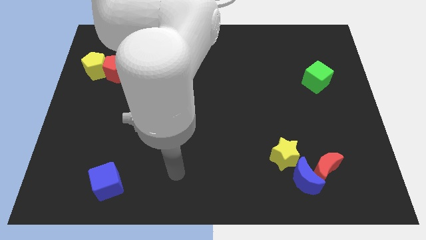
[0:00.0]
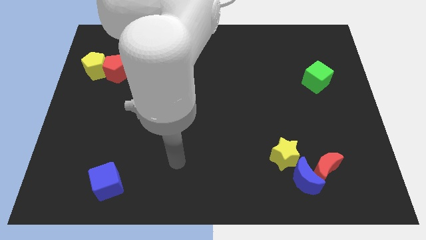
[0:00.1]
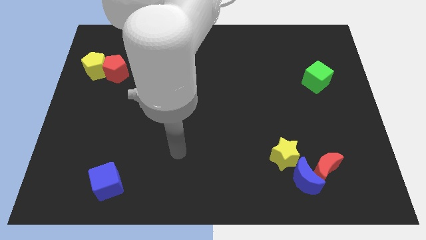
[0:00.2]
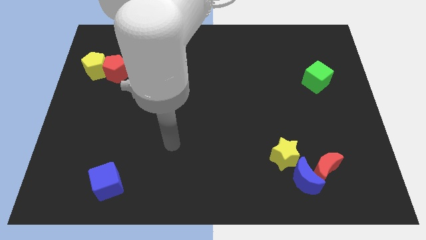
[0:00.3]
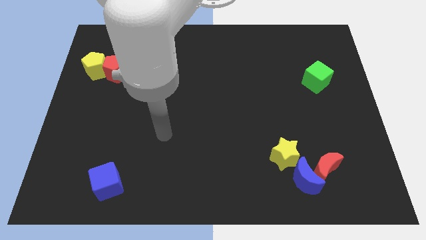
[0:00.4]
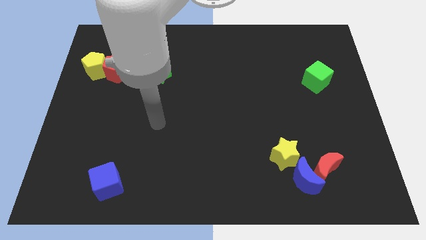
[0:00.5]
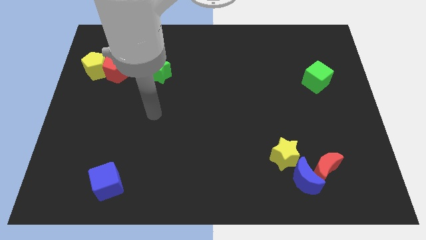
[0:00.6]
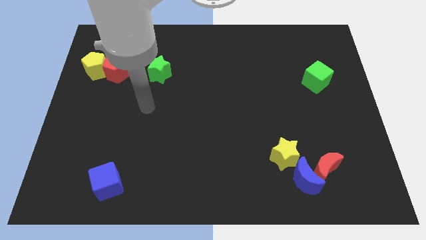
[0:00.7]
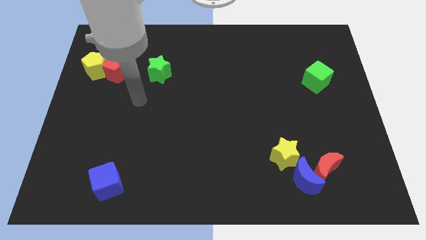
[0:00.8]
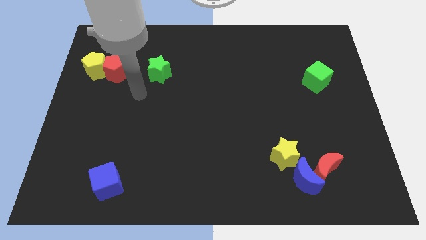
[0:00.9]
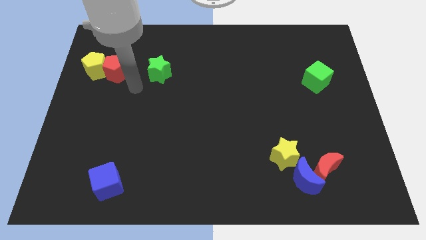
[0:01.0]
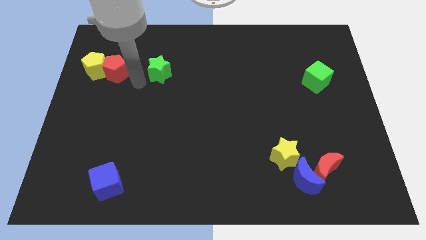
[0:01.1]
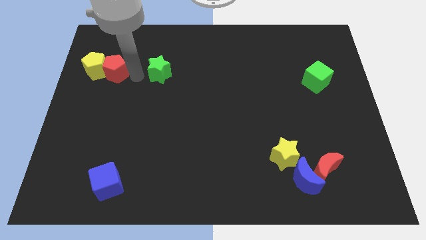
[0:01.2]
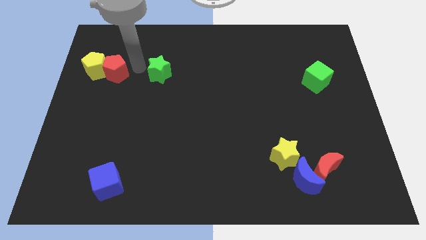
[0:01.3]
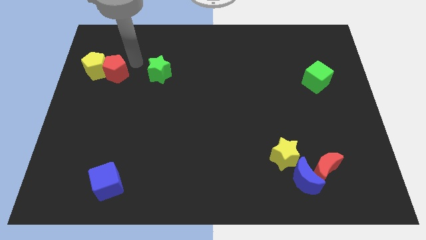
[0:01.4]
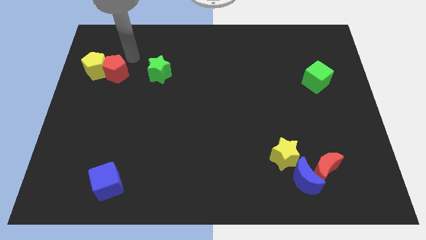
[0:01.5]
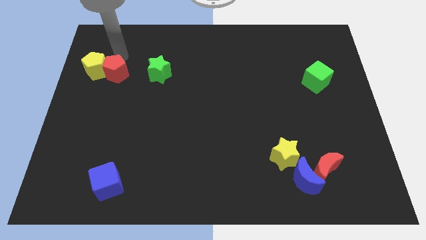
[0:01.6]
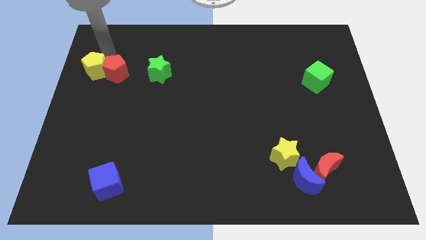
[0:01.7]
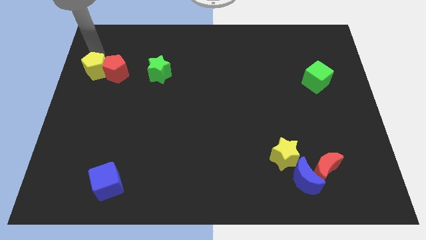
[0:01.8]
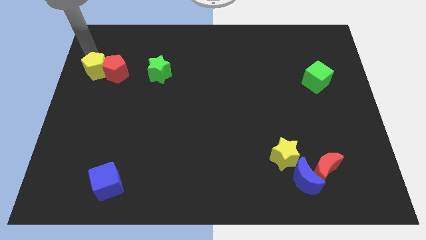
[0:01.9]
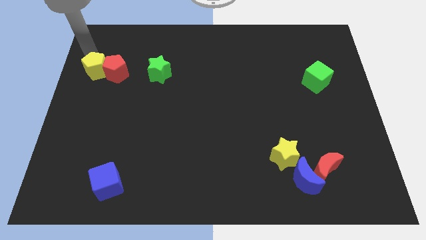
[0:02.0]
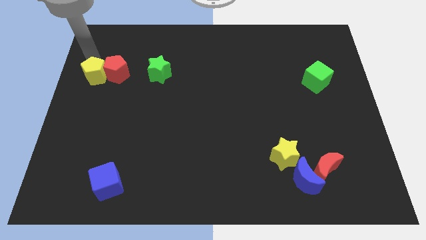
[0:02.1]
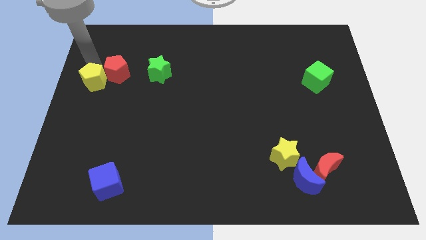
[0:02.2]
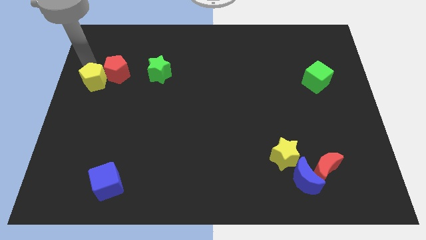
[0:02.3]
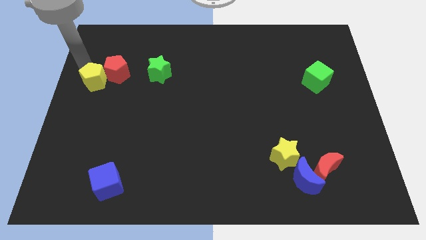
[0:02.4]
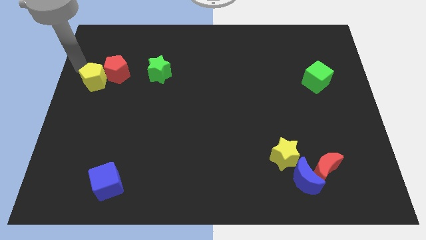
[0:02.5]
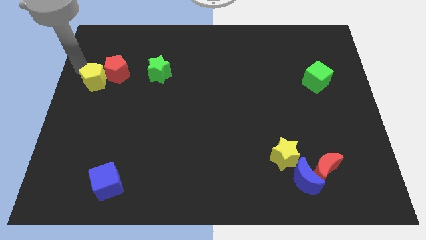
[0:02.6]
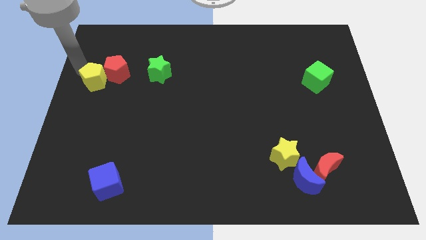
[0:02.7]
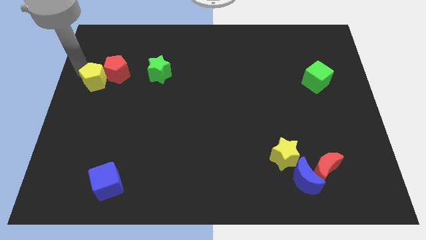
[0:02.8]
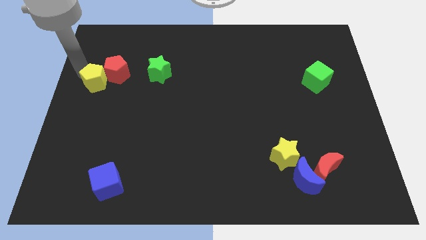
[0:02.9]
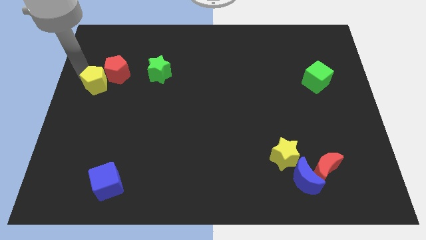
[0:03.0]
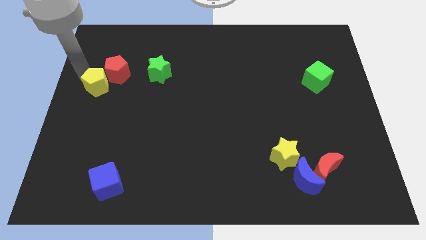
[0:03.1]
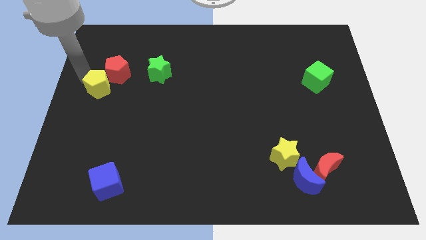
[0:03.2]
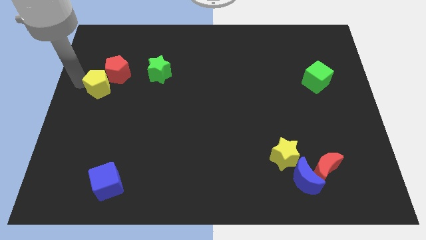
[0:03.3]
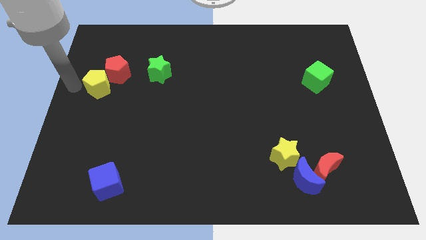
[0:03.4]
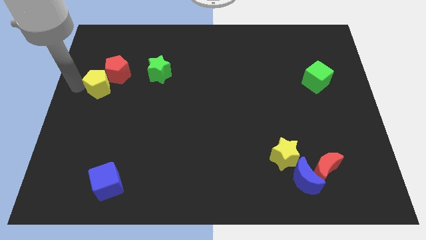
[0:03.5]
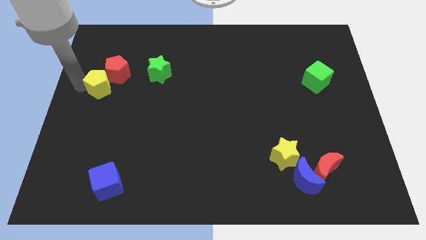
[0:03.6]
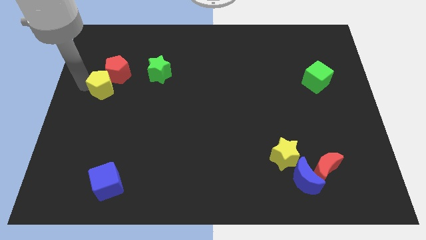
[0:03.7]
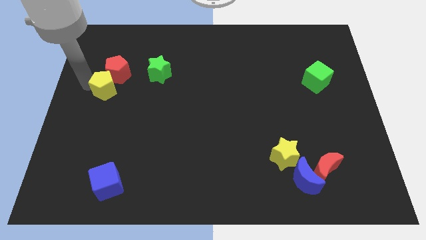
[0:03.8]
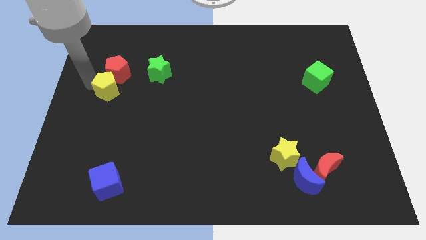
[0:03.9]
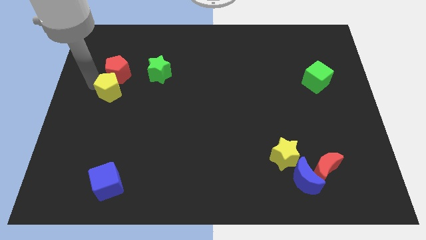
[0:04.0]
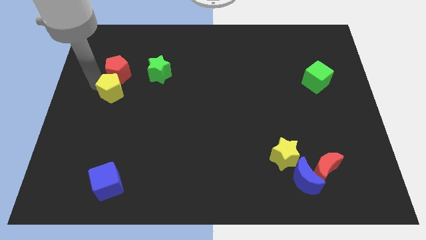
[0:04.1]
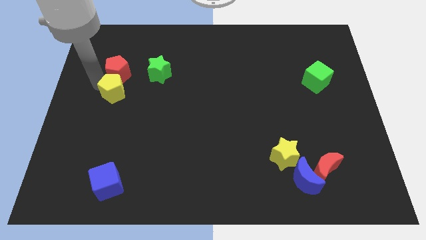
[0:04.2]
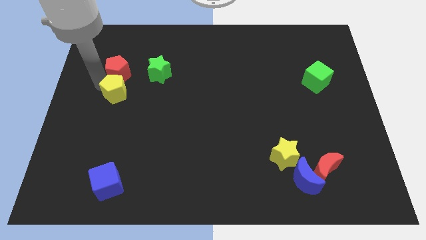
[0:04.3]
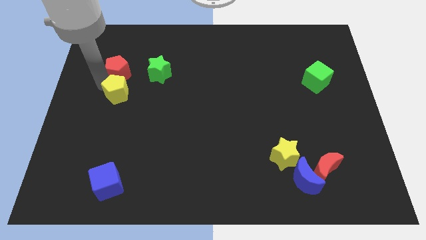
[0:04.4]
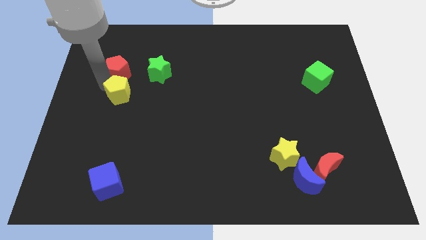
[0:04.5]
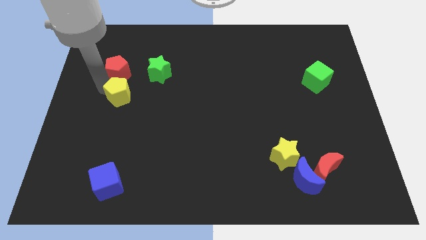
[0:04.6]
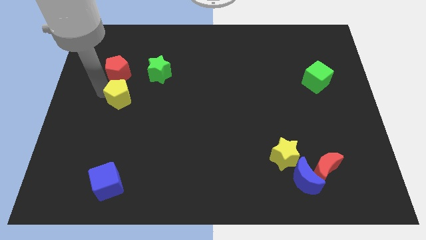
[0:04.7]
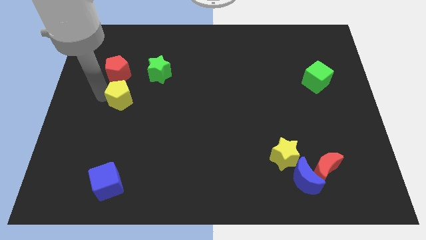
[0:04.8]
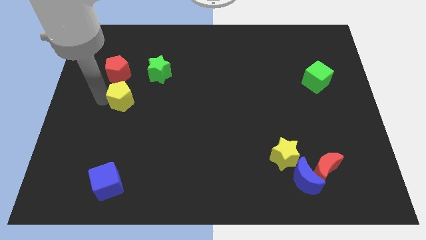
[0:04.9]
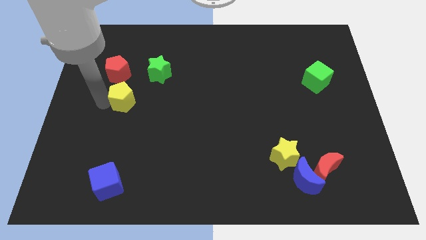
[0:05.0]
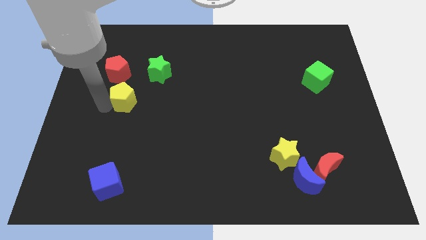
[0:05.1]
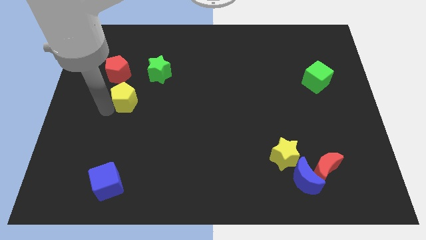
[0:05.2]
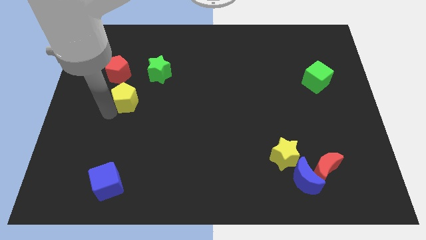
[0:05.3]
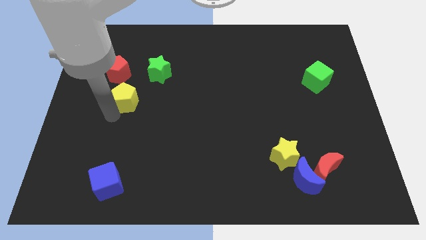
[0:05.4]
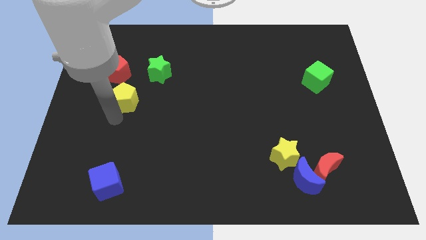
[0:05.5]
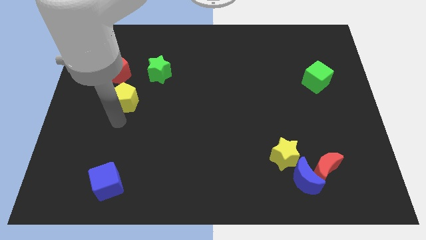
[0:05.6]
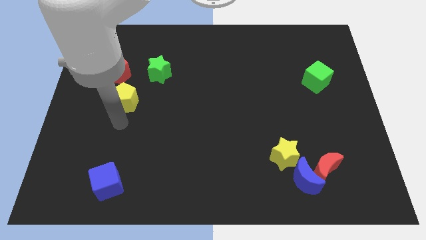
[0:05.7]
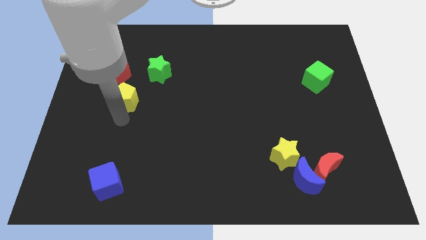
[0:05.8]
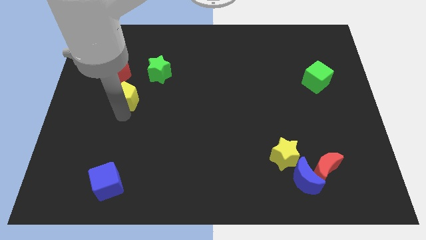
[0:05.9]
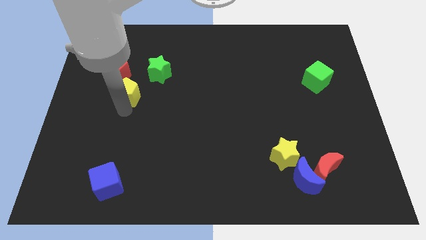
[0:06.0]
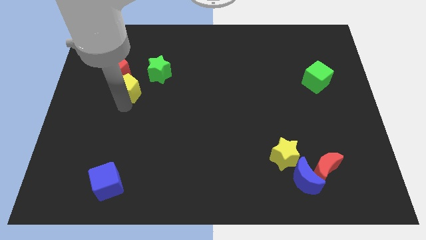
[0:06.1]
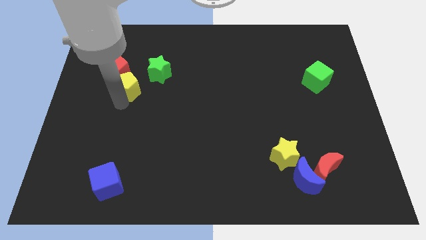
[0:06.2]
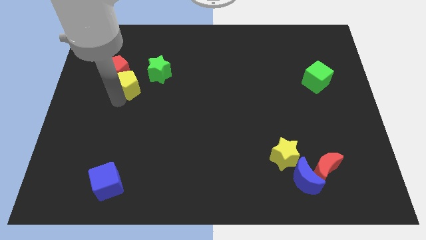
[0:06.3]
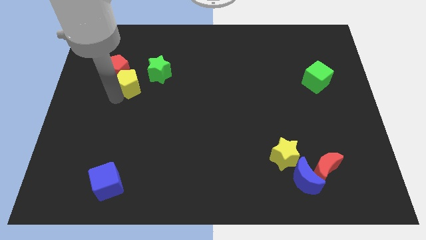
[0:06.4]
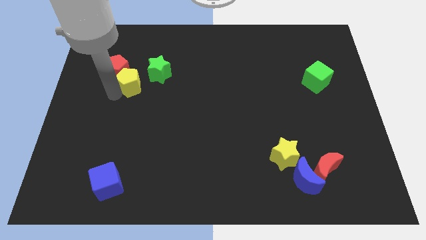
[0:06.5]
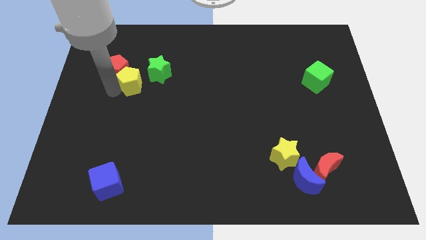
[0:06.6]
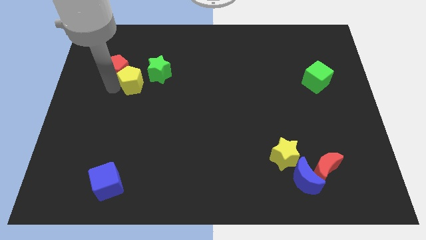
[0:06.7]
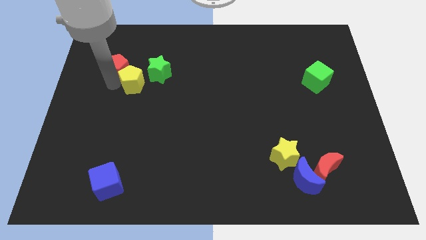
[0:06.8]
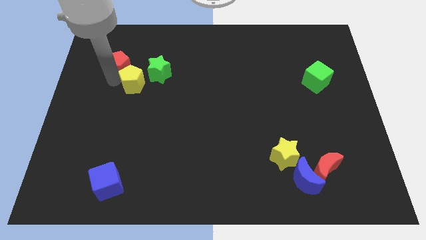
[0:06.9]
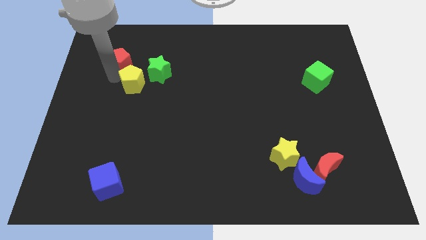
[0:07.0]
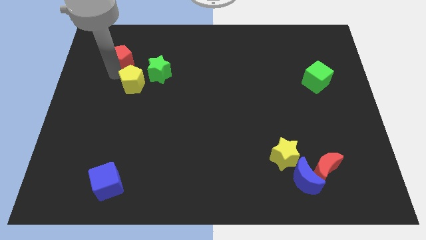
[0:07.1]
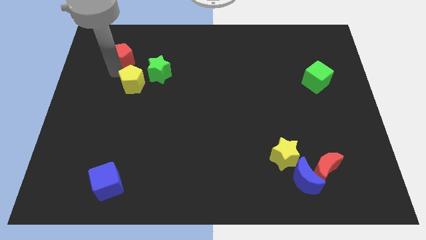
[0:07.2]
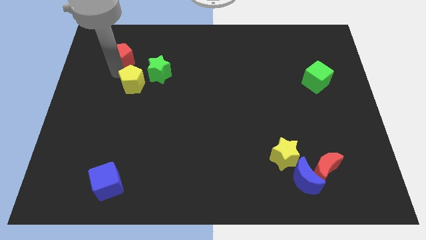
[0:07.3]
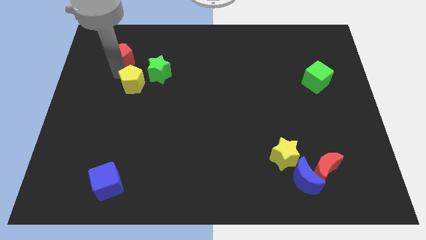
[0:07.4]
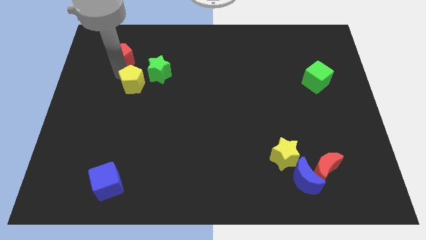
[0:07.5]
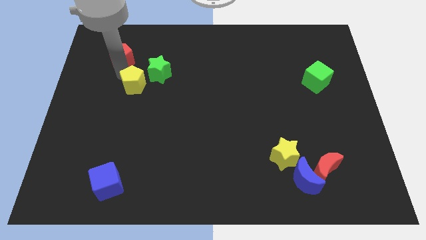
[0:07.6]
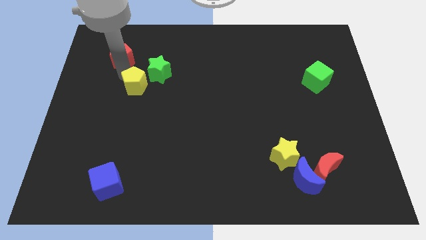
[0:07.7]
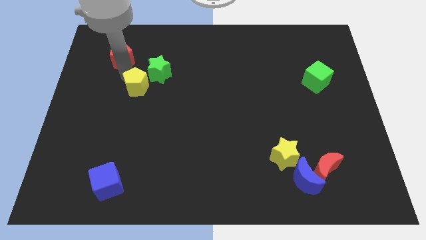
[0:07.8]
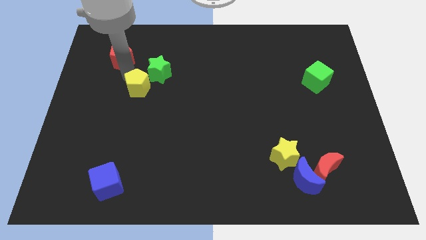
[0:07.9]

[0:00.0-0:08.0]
move the yellow pentagon to the bottom of the green star
